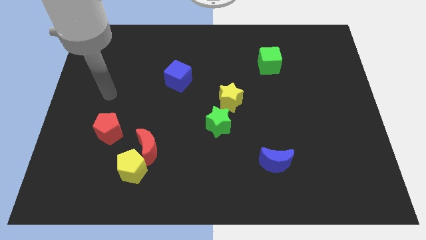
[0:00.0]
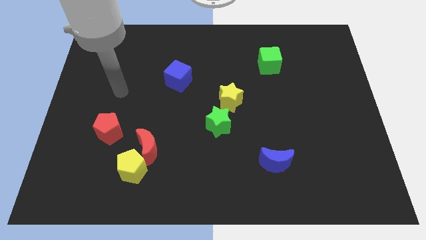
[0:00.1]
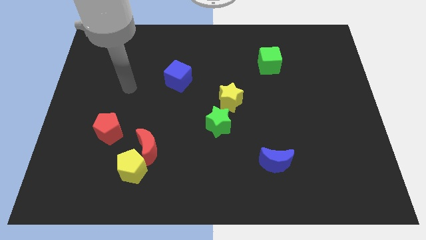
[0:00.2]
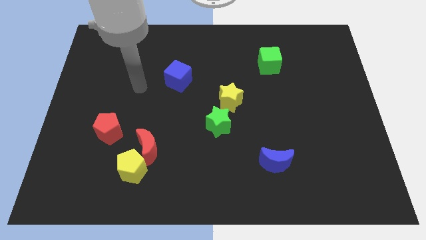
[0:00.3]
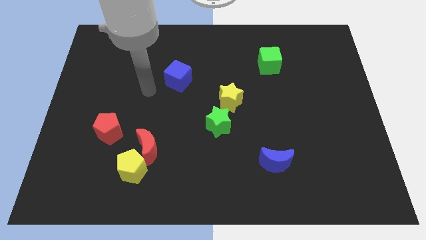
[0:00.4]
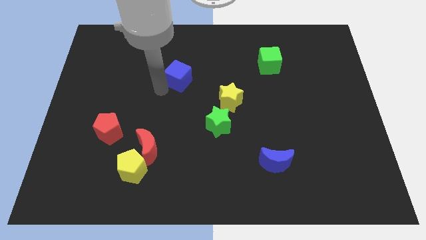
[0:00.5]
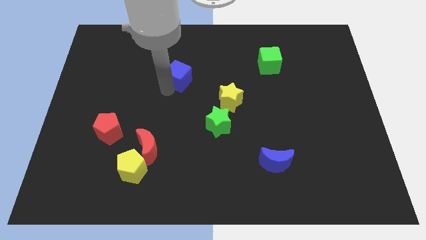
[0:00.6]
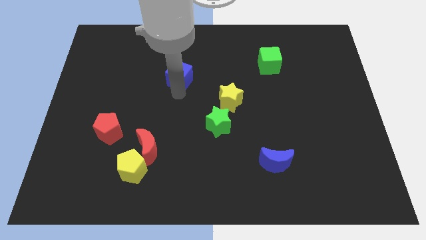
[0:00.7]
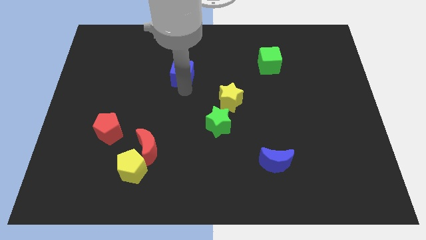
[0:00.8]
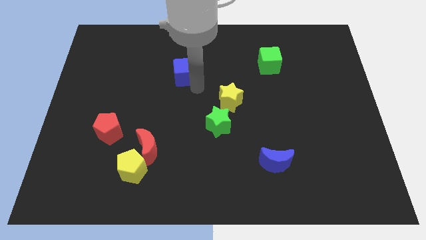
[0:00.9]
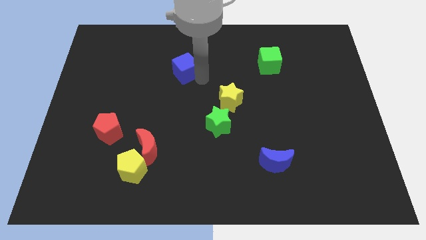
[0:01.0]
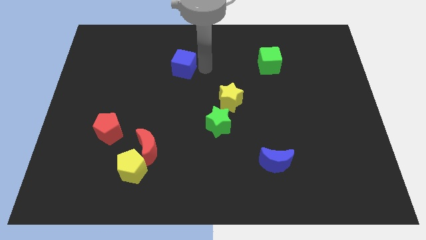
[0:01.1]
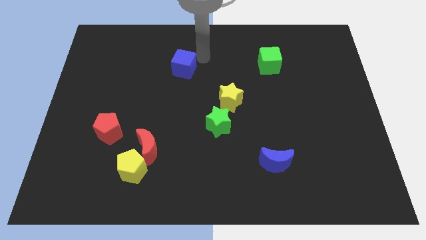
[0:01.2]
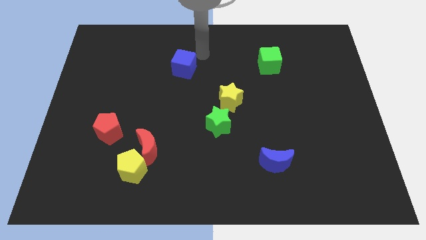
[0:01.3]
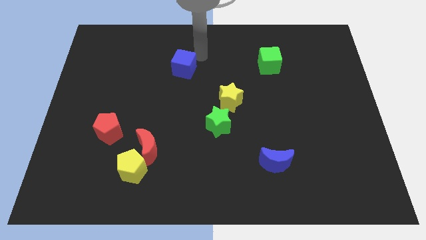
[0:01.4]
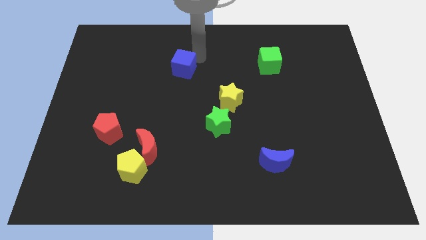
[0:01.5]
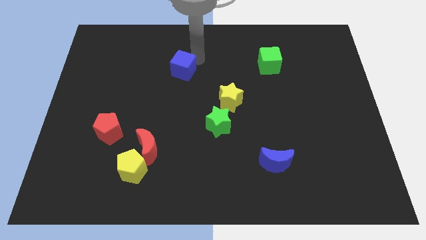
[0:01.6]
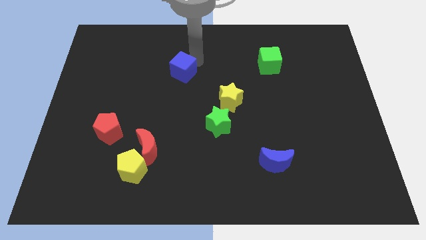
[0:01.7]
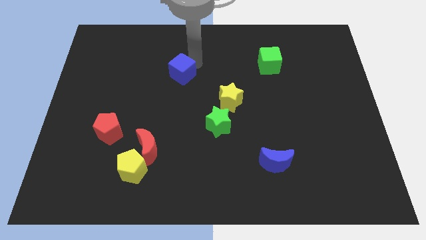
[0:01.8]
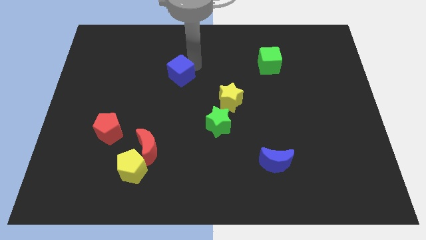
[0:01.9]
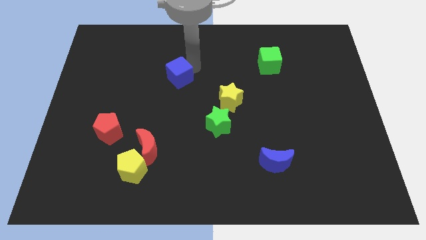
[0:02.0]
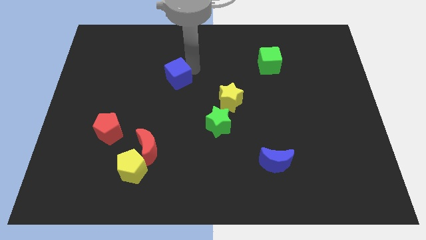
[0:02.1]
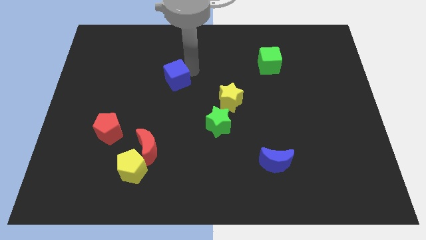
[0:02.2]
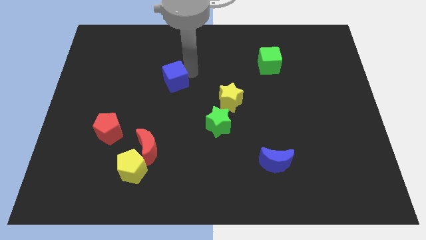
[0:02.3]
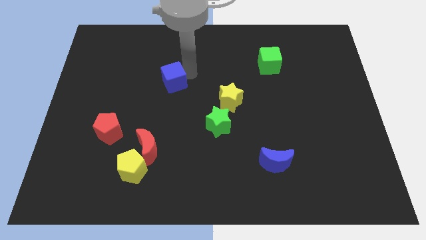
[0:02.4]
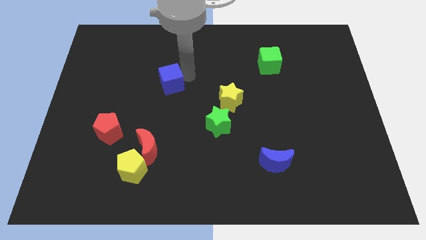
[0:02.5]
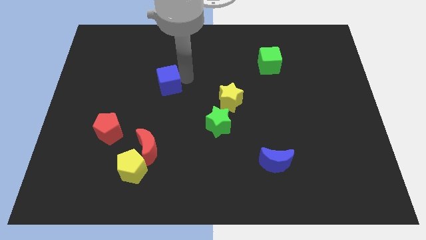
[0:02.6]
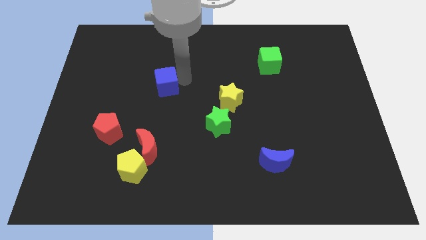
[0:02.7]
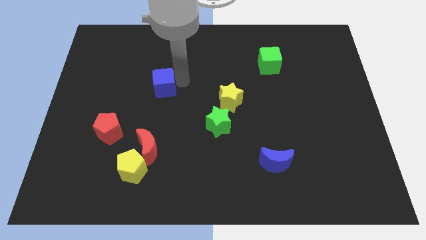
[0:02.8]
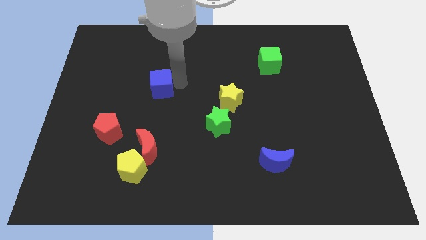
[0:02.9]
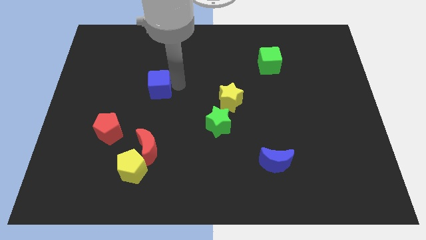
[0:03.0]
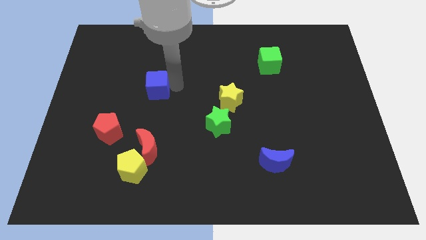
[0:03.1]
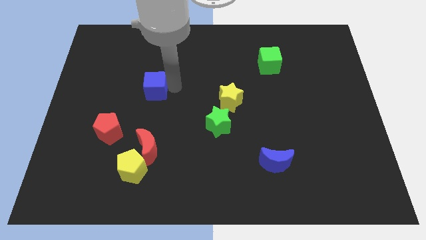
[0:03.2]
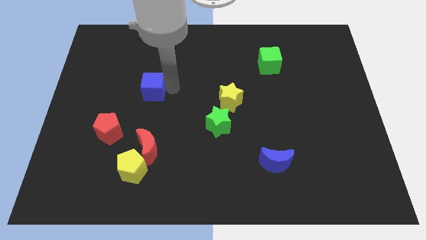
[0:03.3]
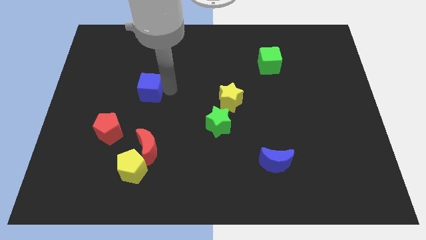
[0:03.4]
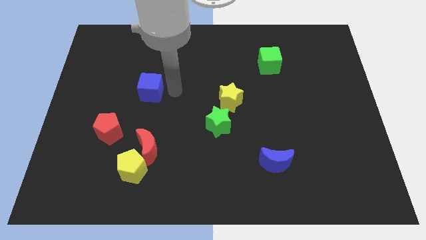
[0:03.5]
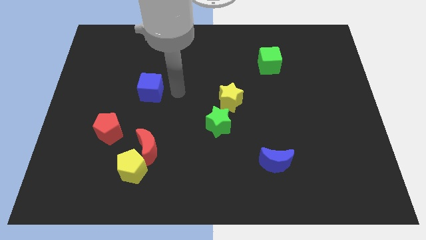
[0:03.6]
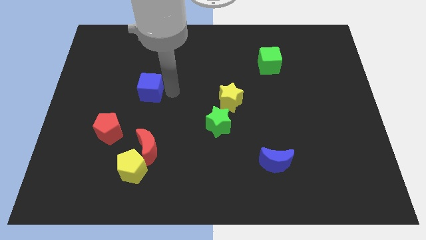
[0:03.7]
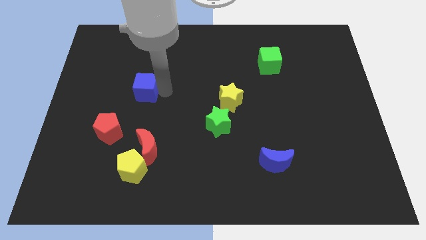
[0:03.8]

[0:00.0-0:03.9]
move the blue cube slightly to the left

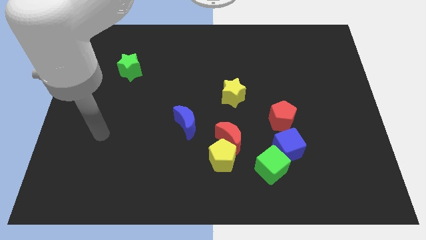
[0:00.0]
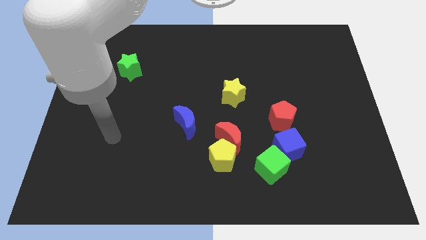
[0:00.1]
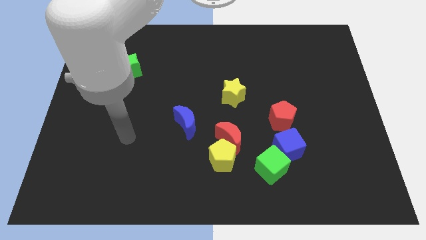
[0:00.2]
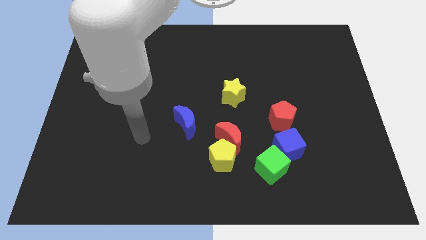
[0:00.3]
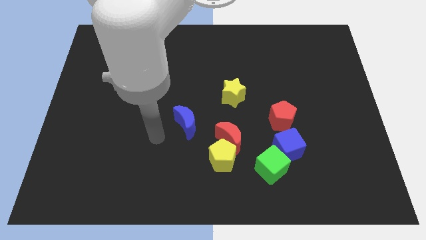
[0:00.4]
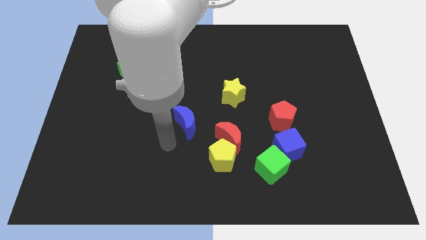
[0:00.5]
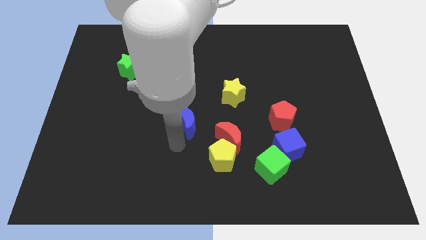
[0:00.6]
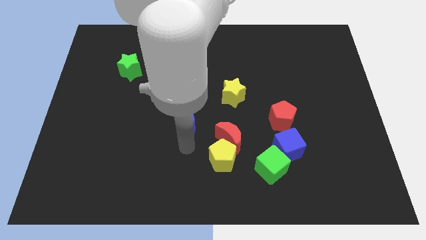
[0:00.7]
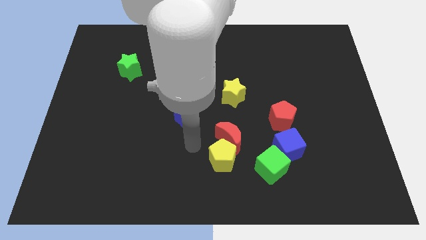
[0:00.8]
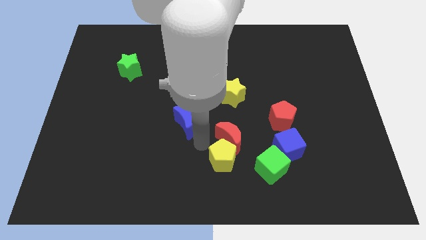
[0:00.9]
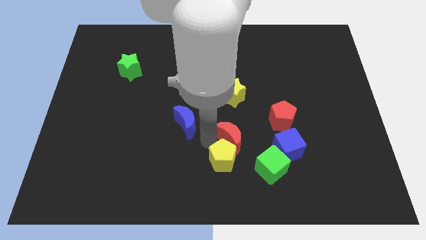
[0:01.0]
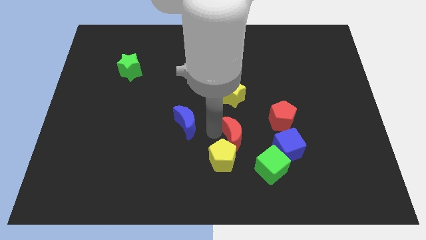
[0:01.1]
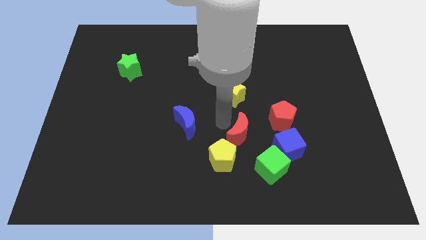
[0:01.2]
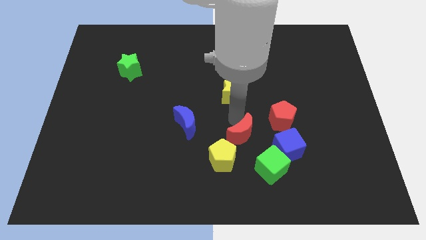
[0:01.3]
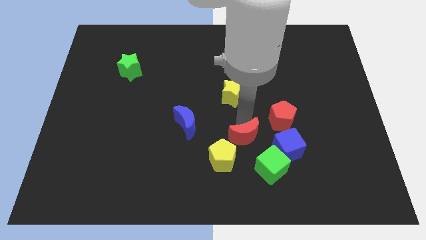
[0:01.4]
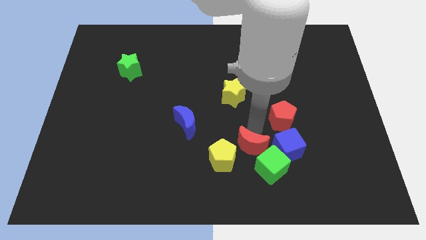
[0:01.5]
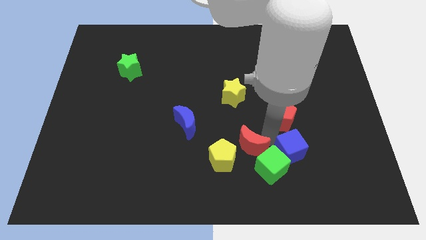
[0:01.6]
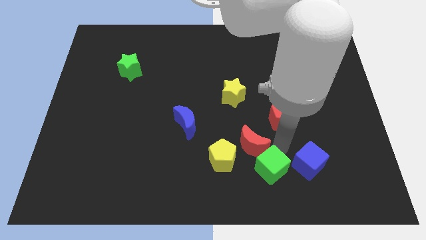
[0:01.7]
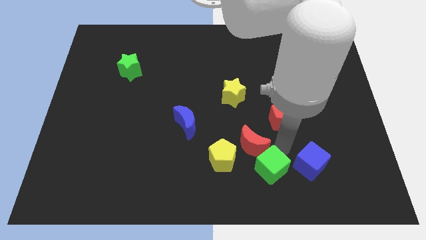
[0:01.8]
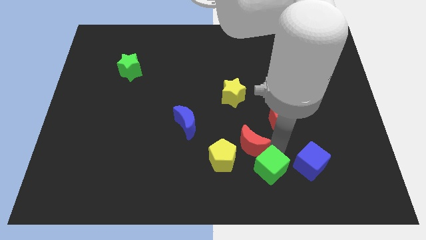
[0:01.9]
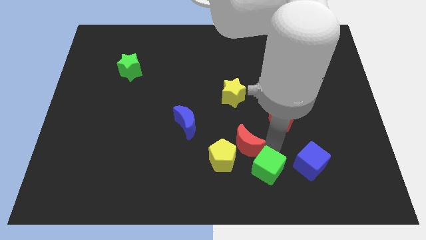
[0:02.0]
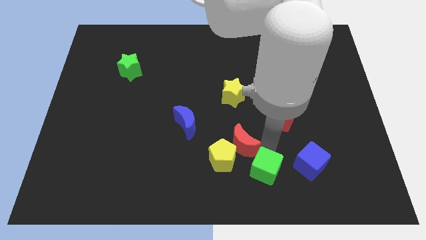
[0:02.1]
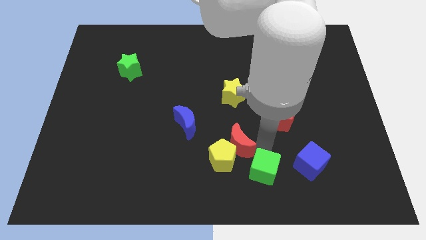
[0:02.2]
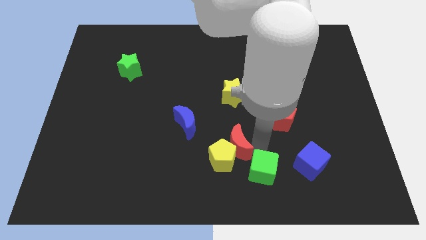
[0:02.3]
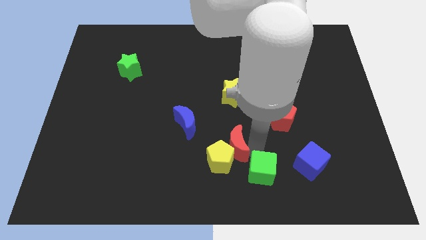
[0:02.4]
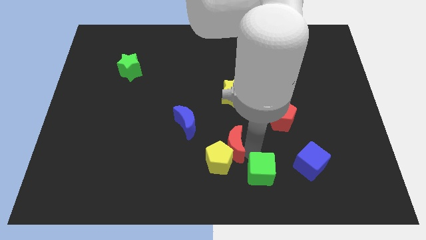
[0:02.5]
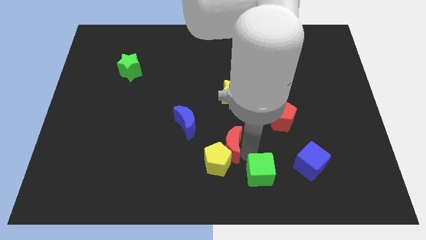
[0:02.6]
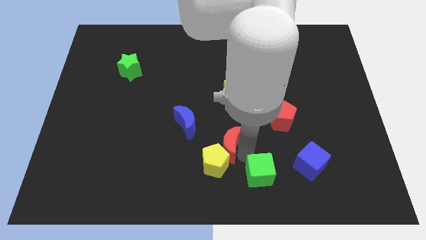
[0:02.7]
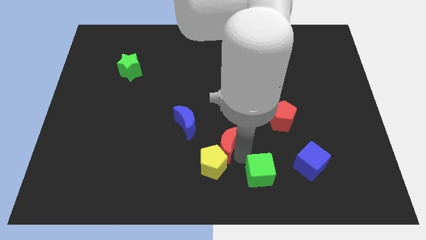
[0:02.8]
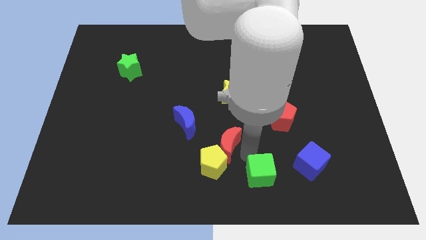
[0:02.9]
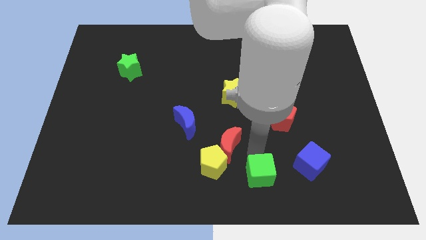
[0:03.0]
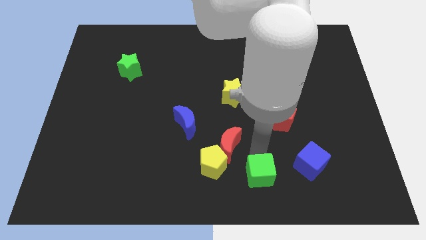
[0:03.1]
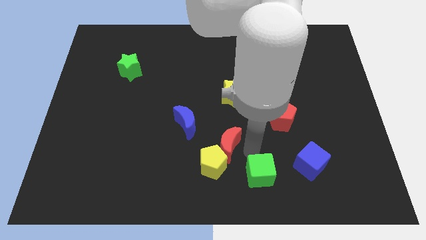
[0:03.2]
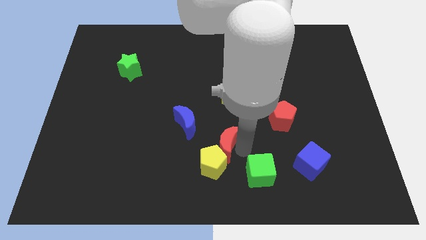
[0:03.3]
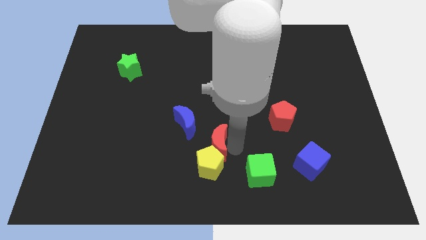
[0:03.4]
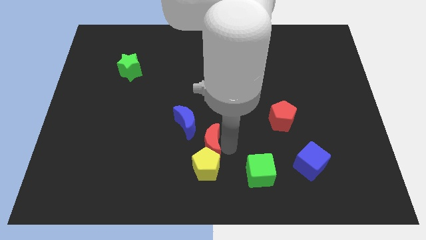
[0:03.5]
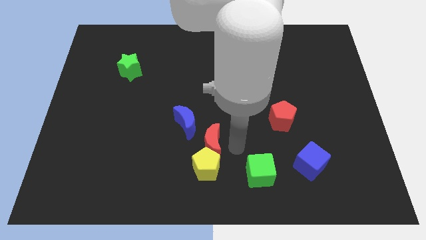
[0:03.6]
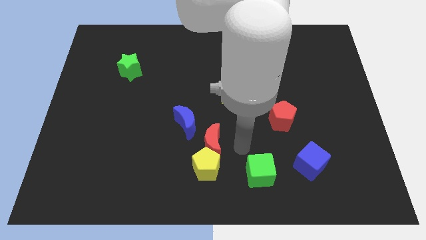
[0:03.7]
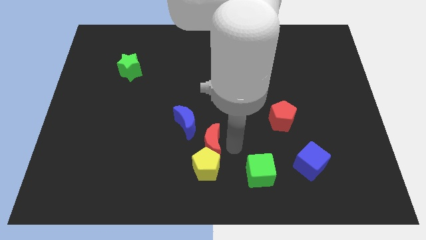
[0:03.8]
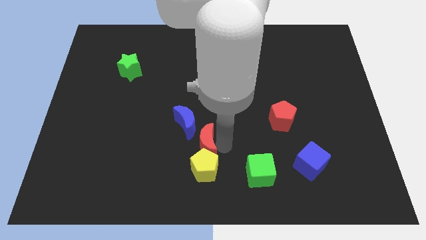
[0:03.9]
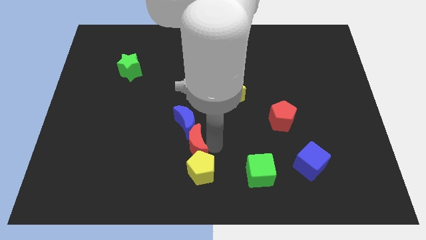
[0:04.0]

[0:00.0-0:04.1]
move the red moon slightly left
